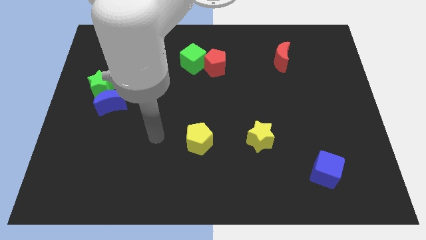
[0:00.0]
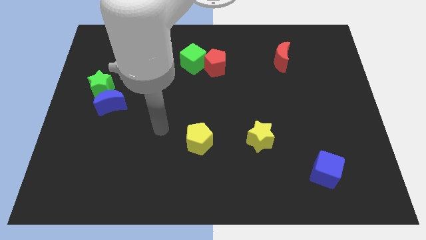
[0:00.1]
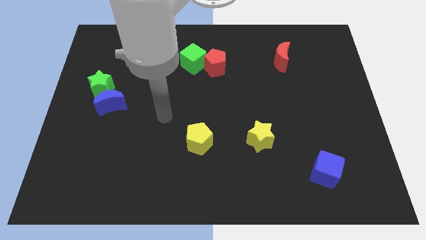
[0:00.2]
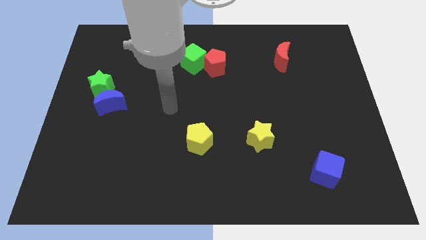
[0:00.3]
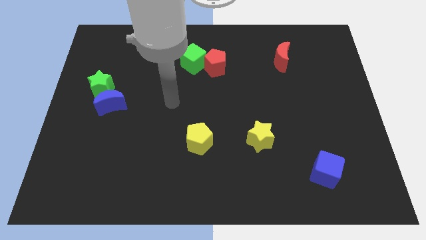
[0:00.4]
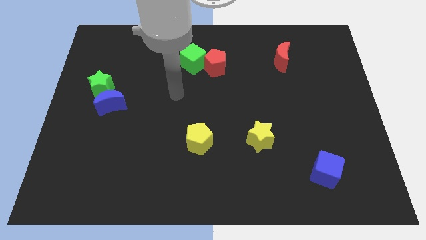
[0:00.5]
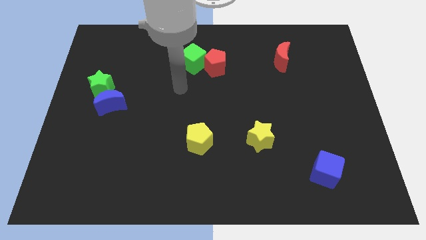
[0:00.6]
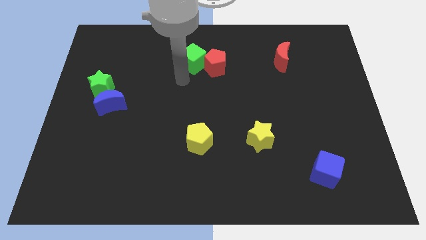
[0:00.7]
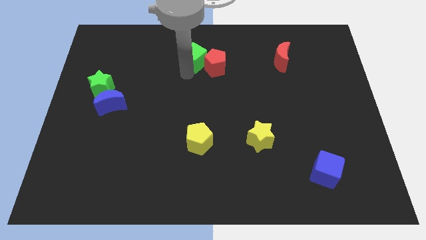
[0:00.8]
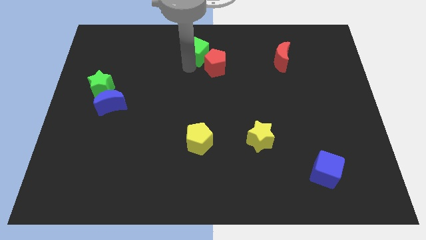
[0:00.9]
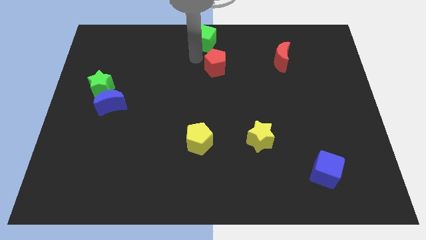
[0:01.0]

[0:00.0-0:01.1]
pull the red pentagon apart from the green cube

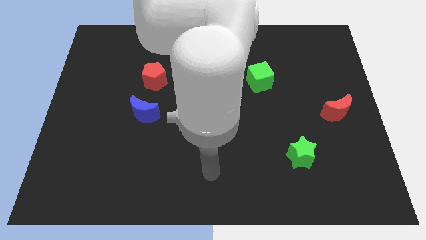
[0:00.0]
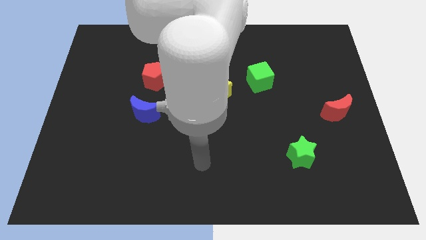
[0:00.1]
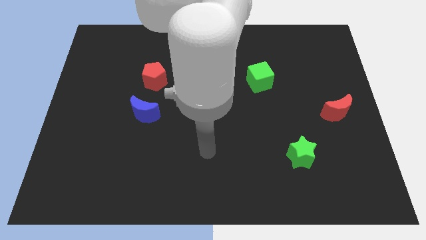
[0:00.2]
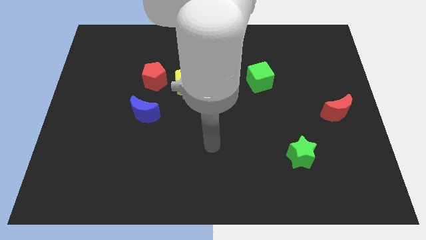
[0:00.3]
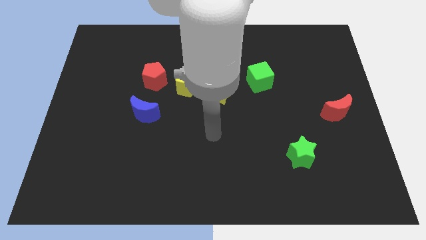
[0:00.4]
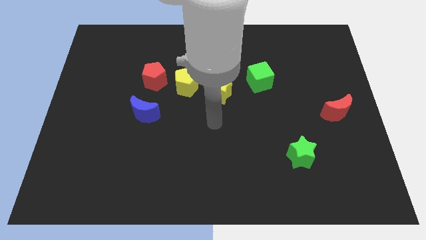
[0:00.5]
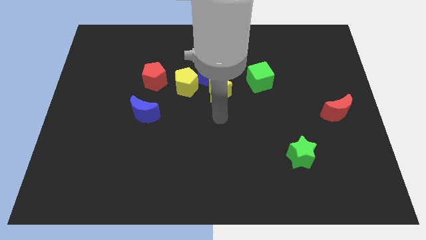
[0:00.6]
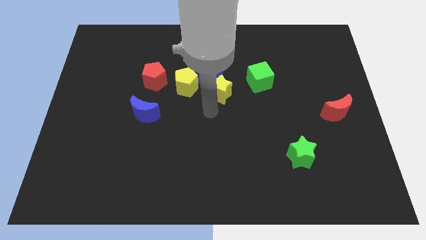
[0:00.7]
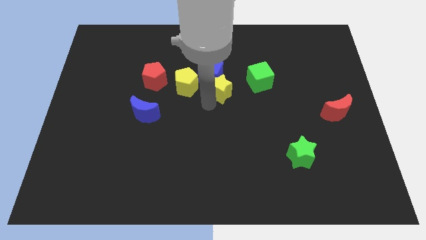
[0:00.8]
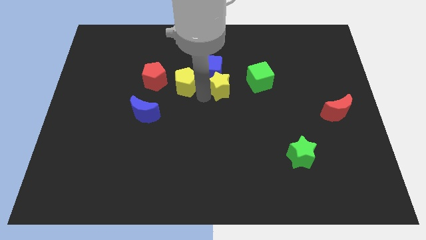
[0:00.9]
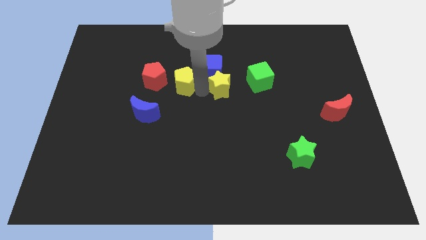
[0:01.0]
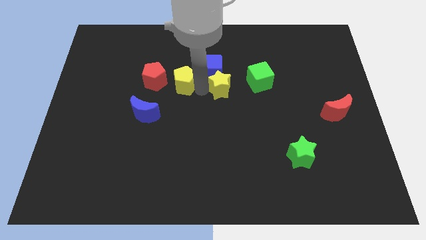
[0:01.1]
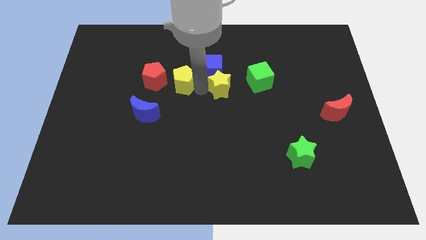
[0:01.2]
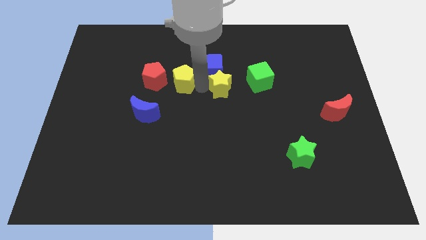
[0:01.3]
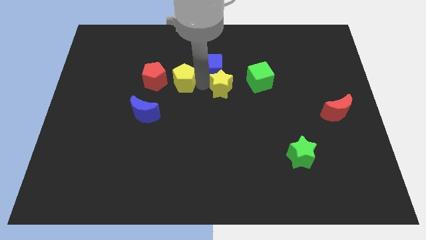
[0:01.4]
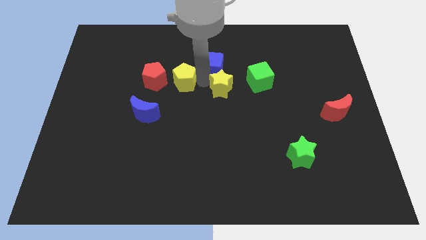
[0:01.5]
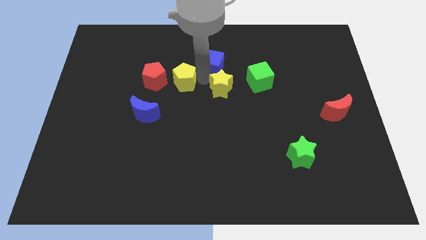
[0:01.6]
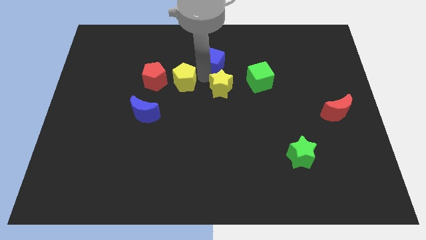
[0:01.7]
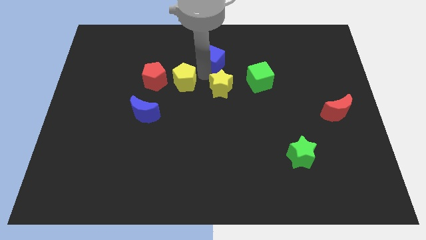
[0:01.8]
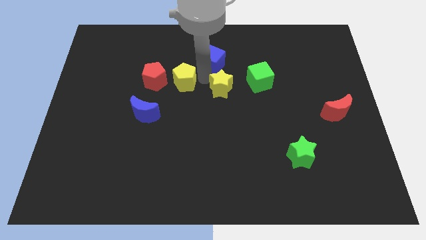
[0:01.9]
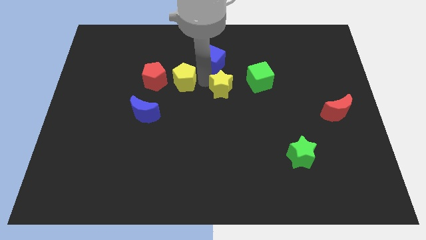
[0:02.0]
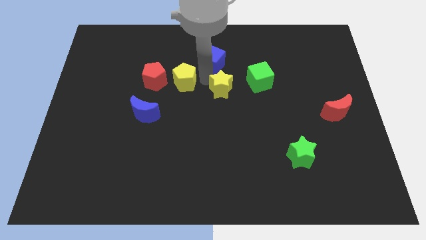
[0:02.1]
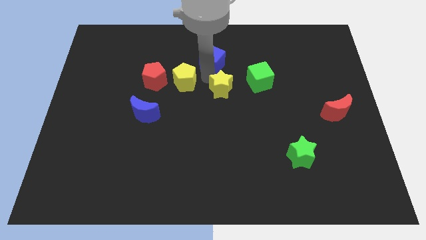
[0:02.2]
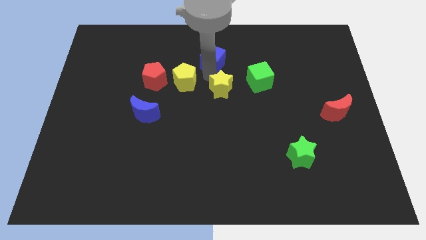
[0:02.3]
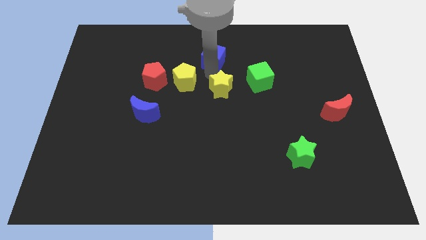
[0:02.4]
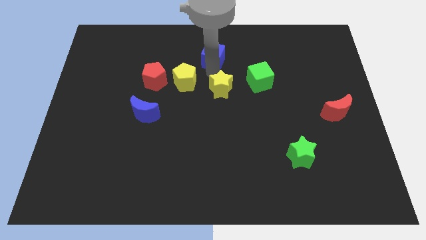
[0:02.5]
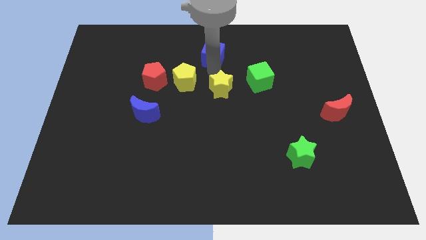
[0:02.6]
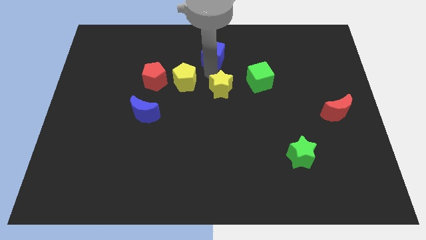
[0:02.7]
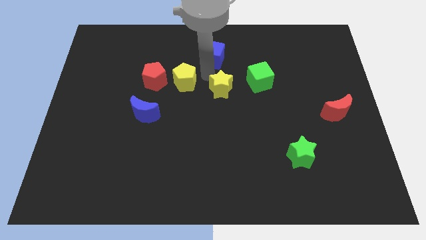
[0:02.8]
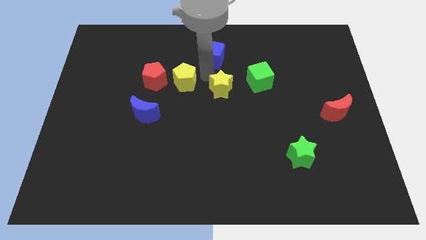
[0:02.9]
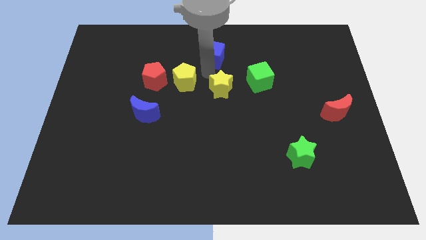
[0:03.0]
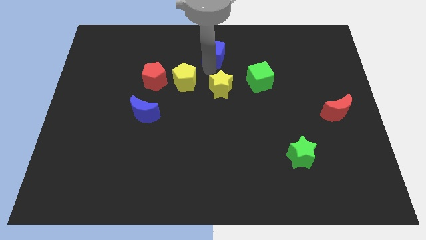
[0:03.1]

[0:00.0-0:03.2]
separate the blue cube from the yellow star and yellow pentagon

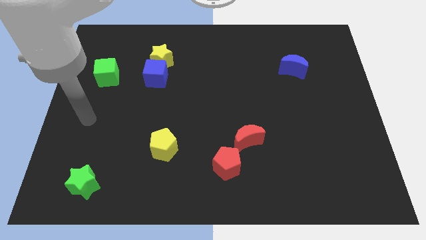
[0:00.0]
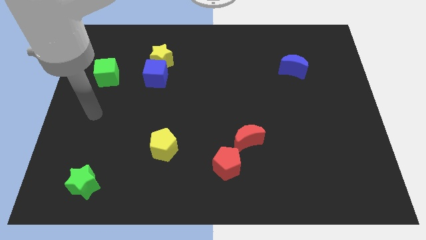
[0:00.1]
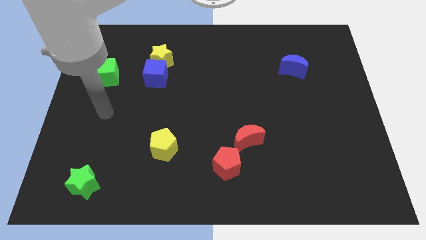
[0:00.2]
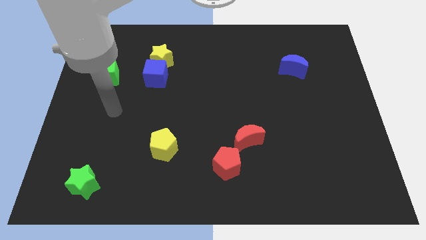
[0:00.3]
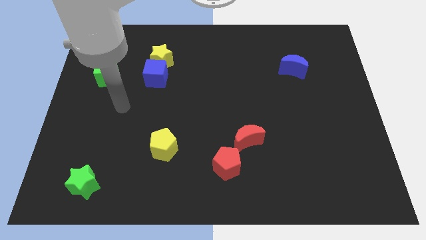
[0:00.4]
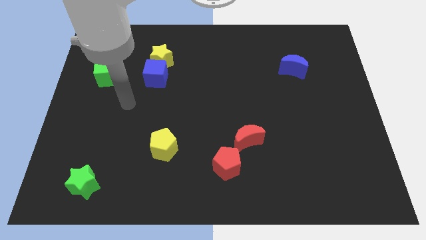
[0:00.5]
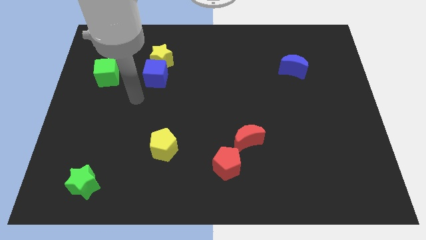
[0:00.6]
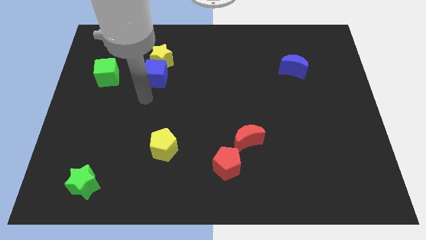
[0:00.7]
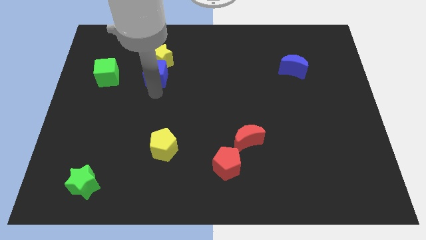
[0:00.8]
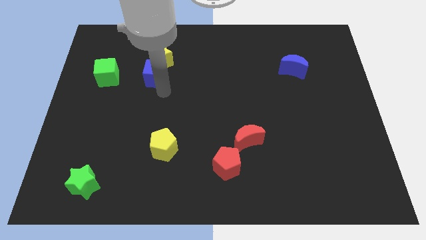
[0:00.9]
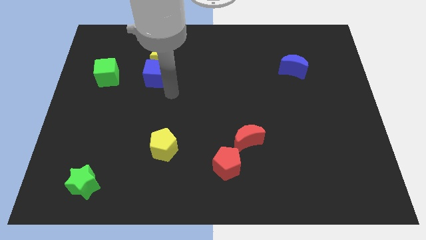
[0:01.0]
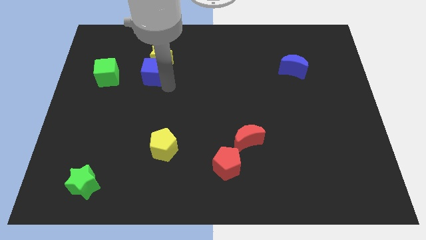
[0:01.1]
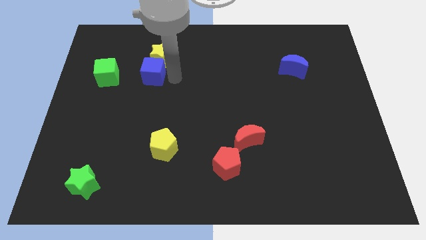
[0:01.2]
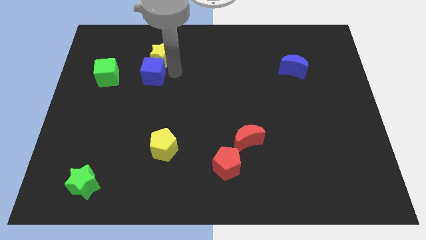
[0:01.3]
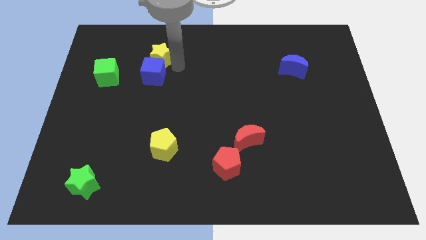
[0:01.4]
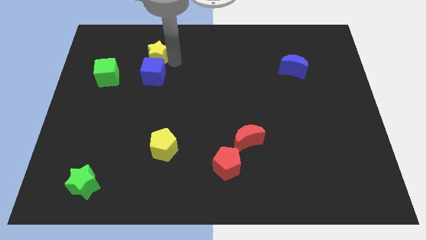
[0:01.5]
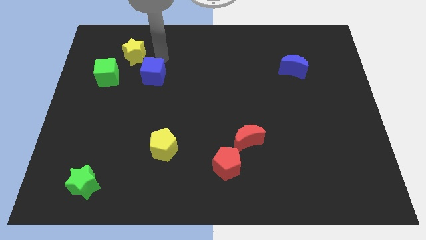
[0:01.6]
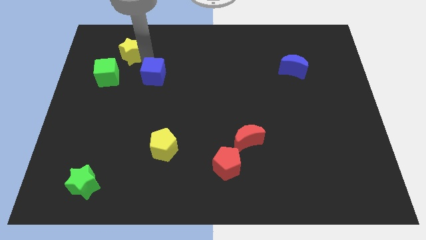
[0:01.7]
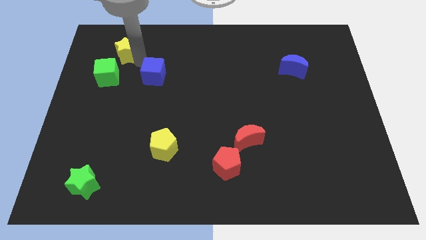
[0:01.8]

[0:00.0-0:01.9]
move the blue cube away from the yellow star

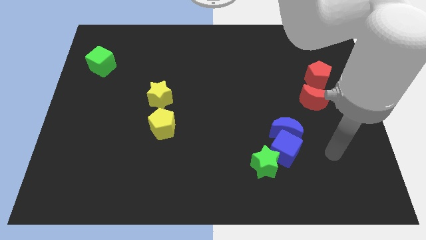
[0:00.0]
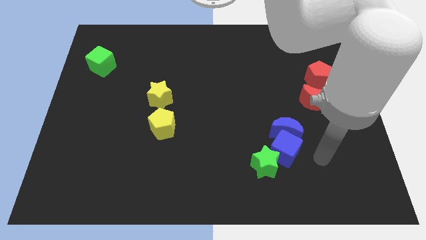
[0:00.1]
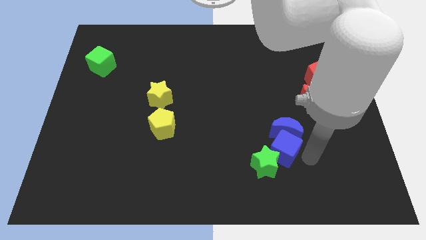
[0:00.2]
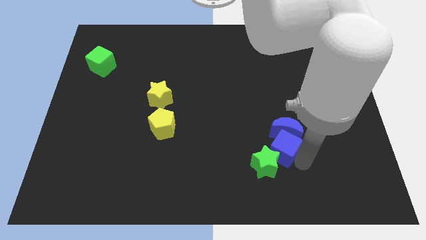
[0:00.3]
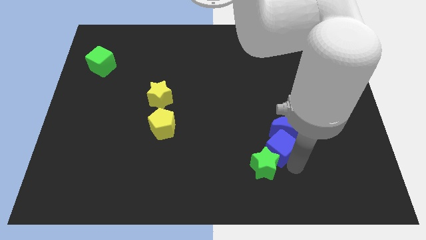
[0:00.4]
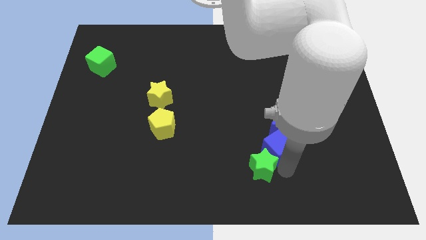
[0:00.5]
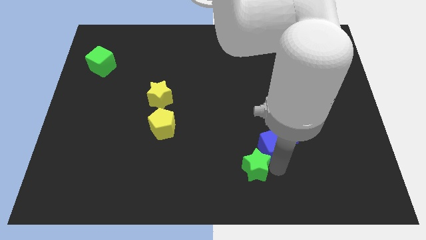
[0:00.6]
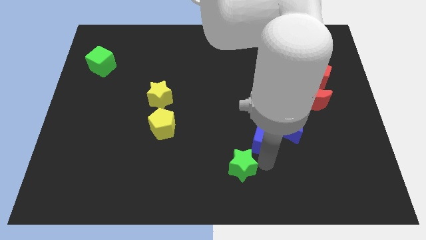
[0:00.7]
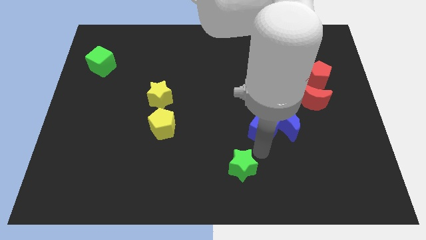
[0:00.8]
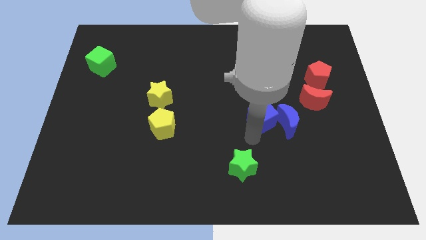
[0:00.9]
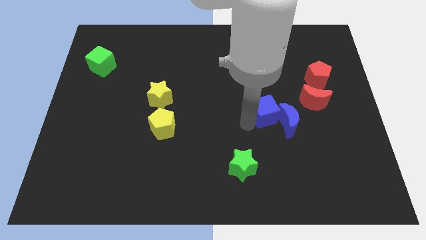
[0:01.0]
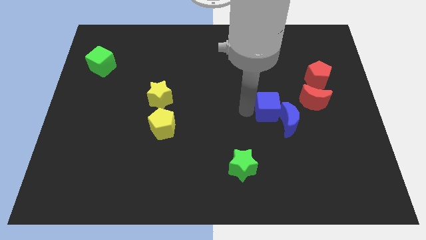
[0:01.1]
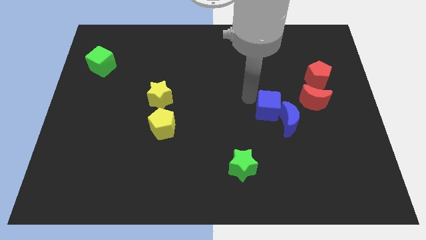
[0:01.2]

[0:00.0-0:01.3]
pull the blue cube apart from the blue moon and green star

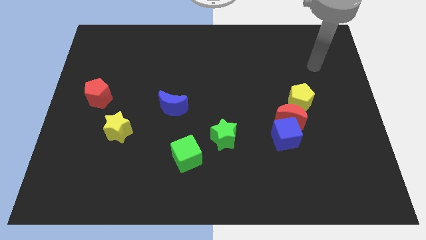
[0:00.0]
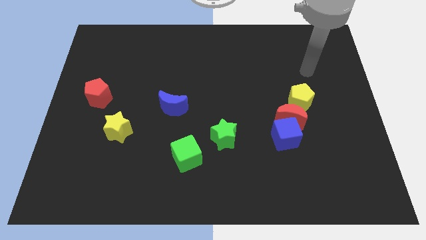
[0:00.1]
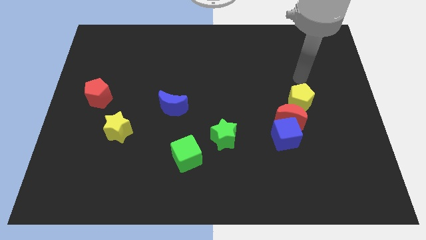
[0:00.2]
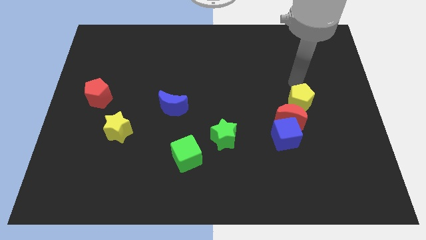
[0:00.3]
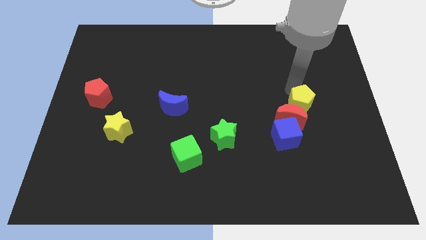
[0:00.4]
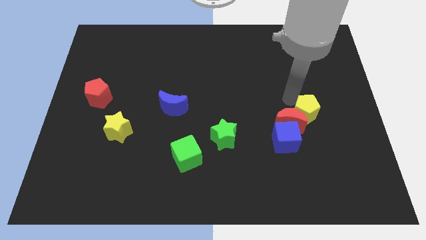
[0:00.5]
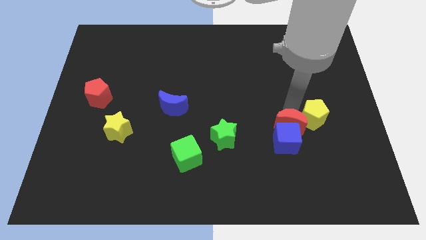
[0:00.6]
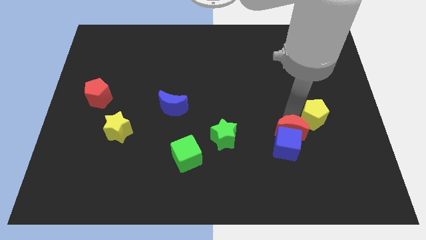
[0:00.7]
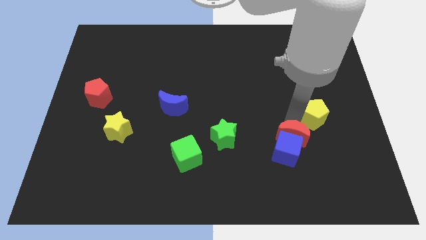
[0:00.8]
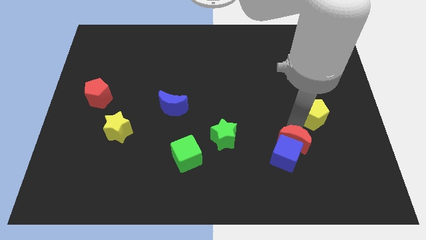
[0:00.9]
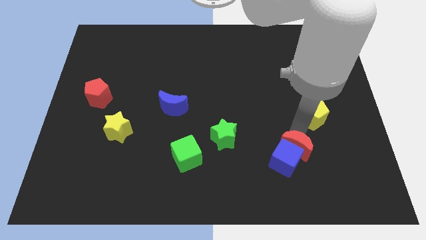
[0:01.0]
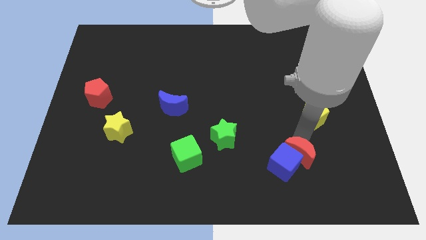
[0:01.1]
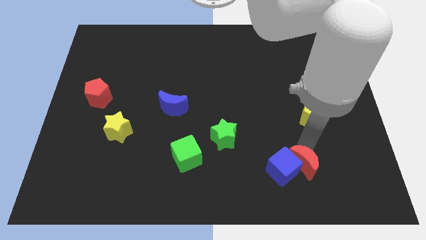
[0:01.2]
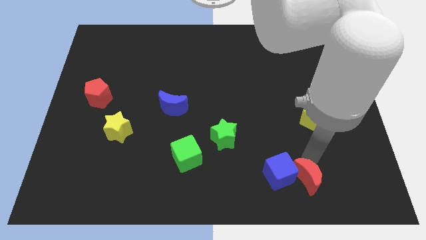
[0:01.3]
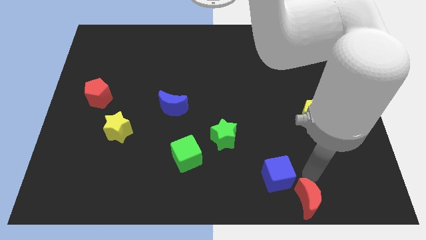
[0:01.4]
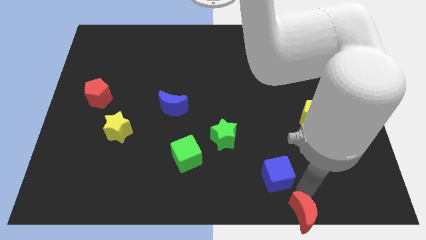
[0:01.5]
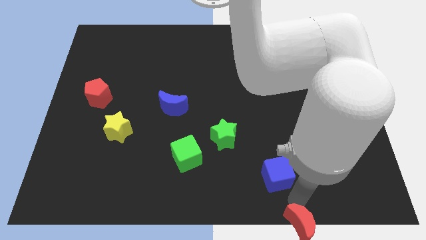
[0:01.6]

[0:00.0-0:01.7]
separate the blue cube from the red moon
